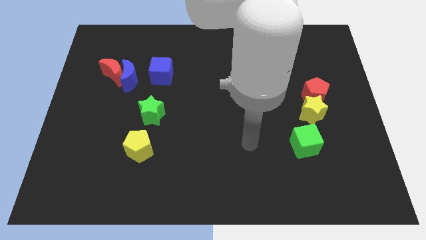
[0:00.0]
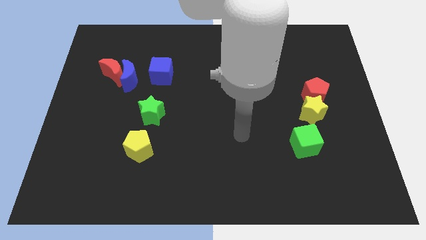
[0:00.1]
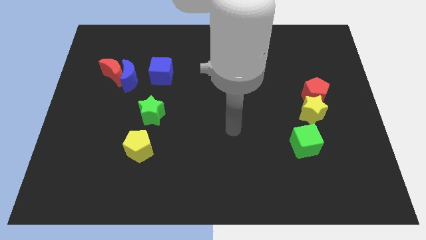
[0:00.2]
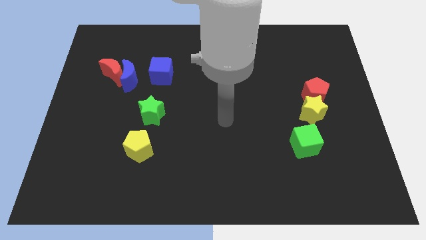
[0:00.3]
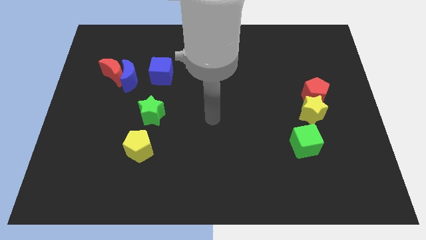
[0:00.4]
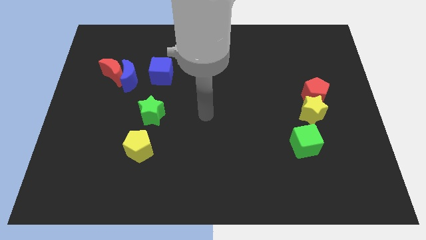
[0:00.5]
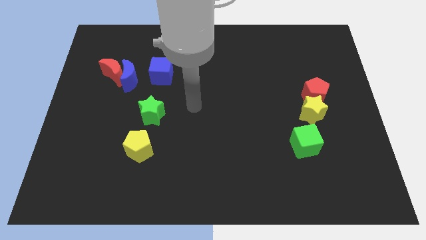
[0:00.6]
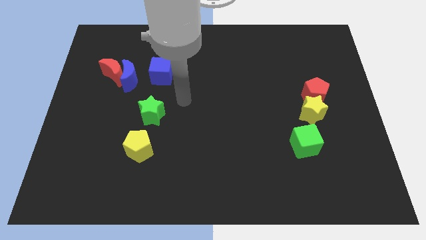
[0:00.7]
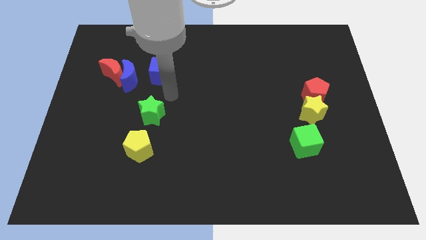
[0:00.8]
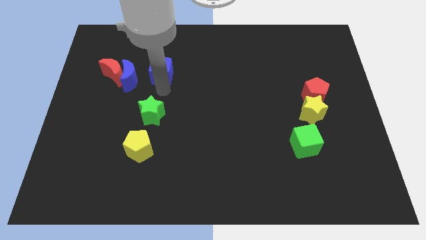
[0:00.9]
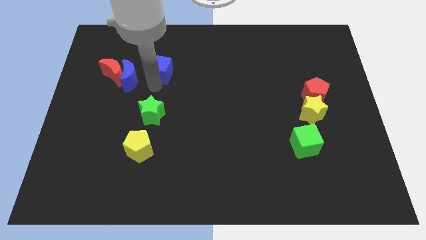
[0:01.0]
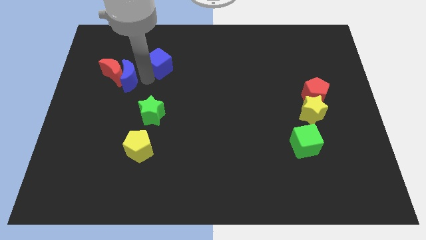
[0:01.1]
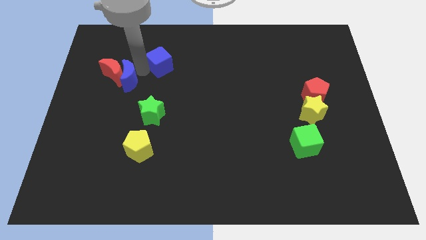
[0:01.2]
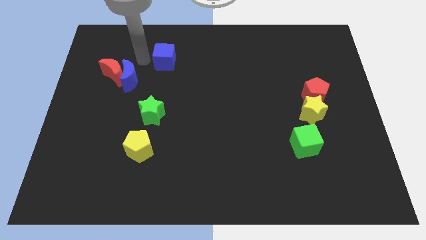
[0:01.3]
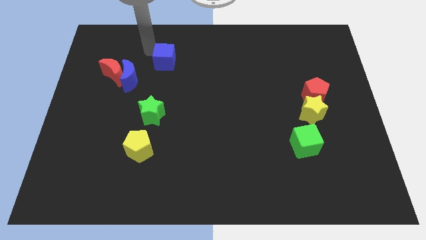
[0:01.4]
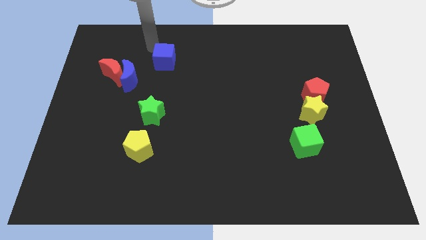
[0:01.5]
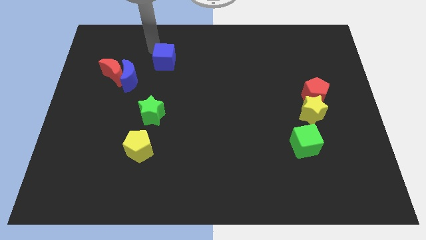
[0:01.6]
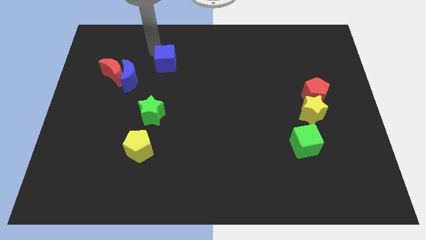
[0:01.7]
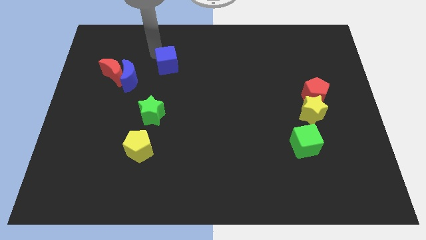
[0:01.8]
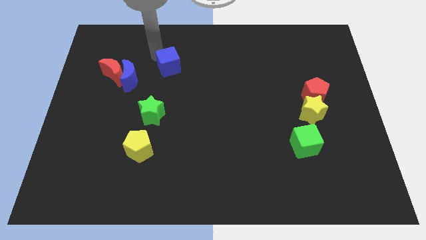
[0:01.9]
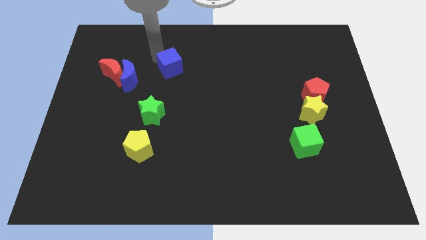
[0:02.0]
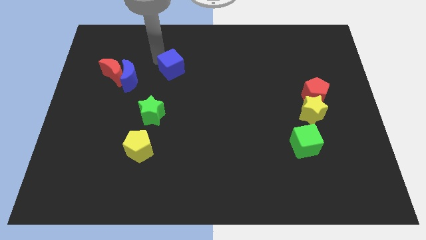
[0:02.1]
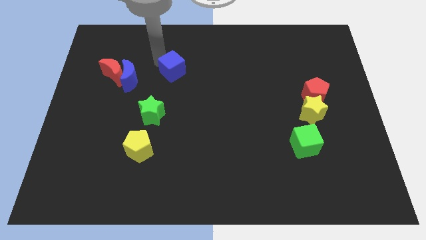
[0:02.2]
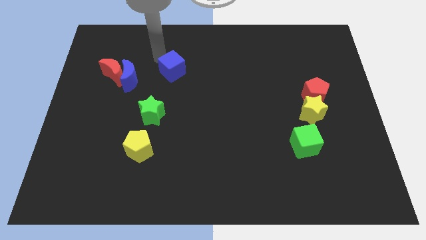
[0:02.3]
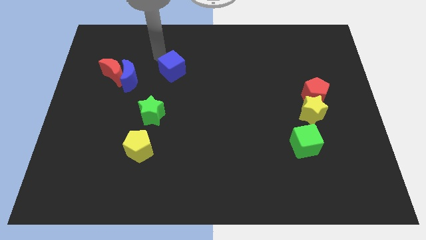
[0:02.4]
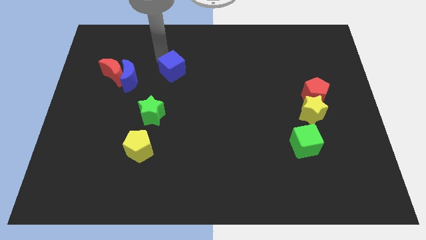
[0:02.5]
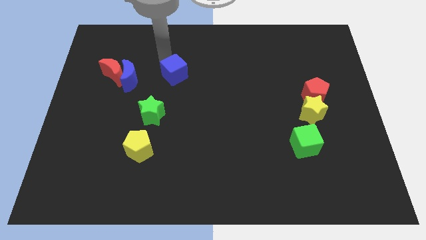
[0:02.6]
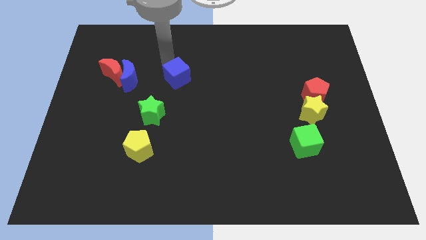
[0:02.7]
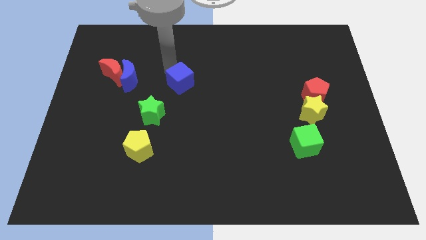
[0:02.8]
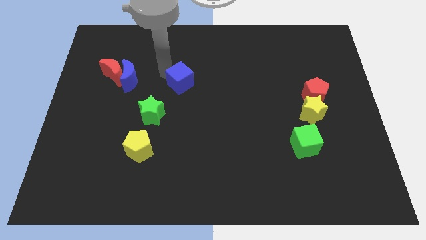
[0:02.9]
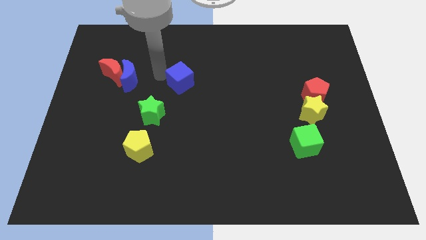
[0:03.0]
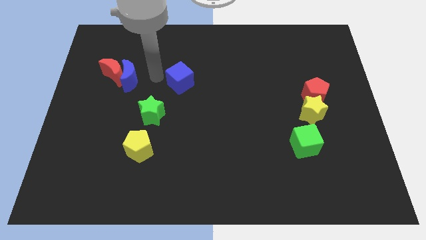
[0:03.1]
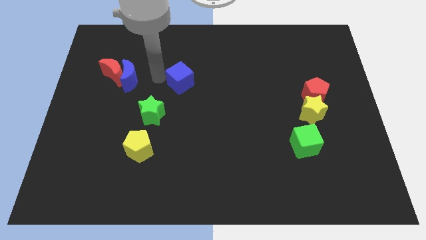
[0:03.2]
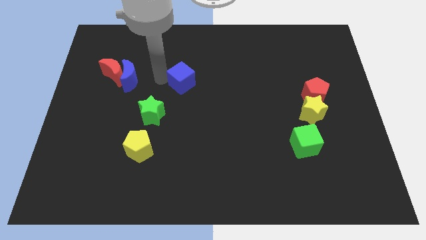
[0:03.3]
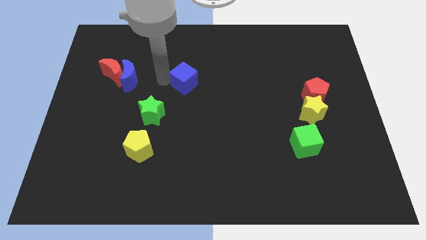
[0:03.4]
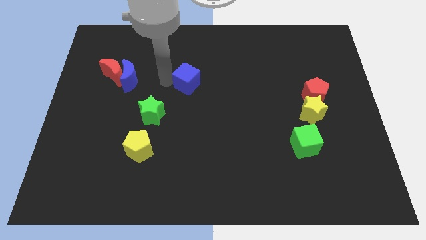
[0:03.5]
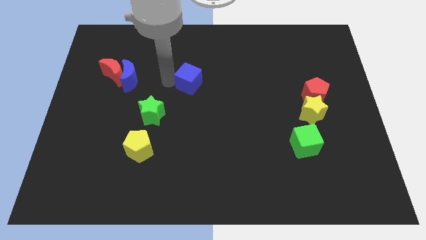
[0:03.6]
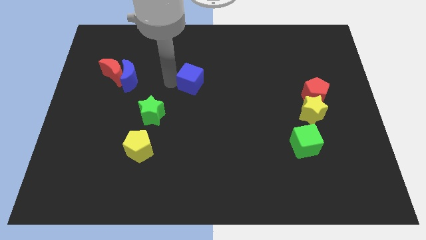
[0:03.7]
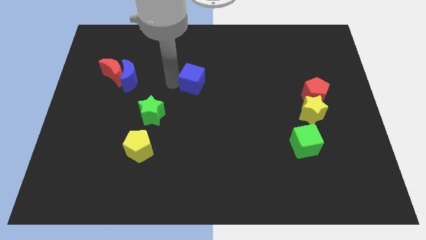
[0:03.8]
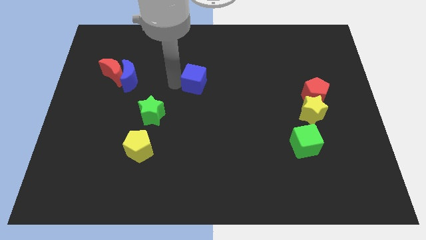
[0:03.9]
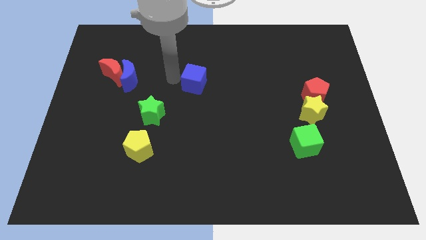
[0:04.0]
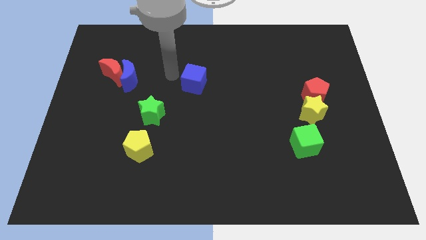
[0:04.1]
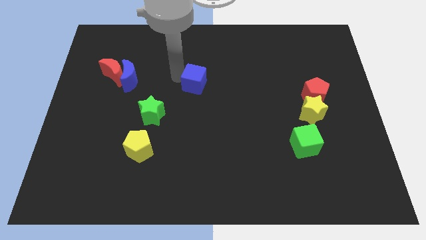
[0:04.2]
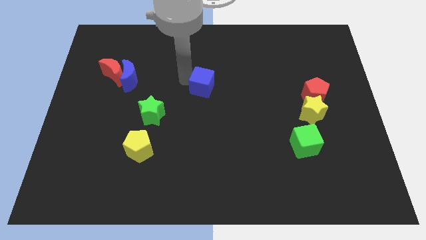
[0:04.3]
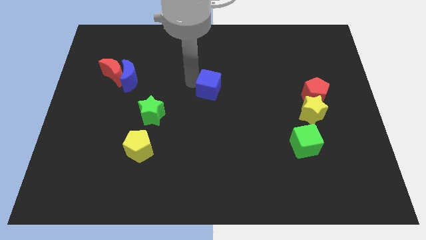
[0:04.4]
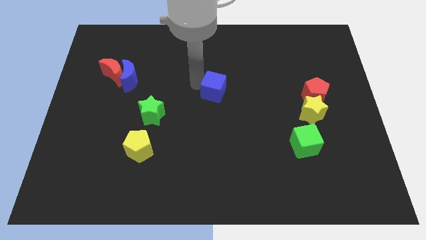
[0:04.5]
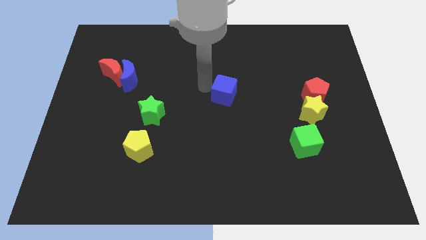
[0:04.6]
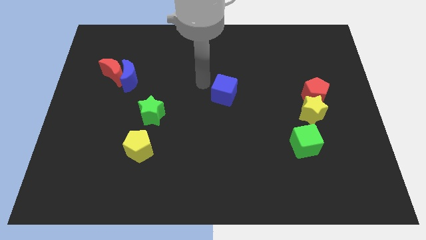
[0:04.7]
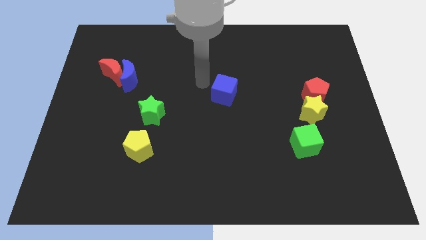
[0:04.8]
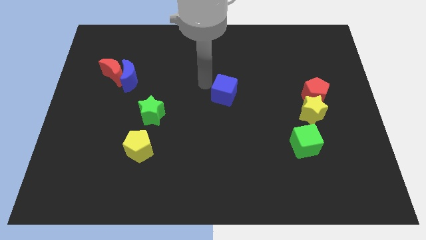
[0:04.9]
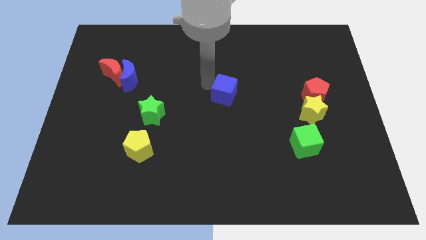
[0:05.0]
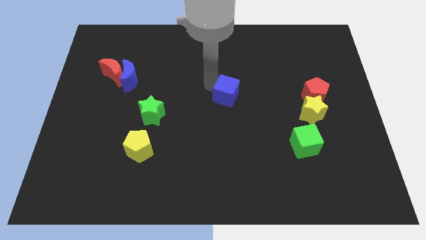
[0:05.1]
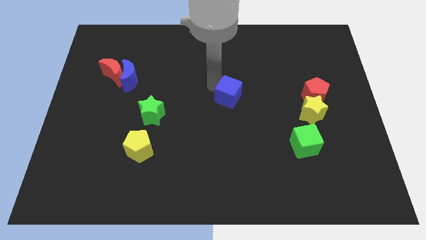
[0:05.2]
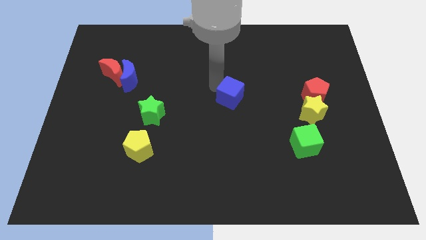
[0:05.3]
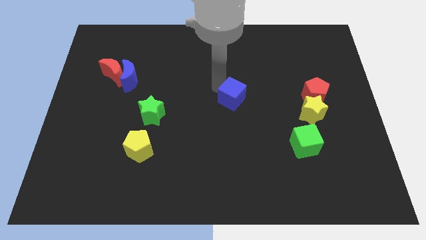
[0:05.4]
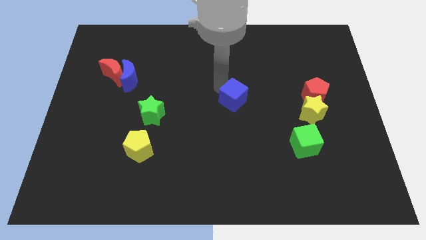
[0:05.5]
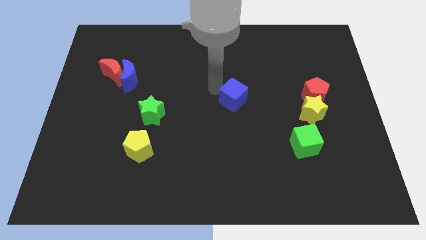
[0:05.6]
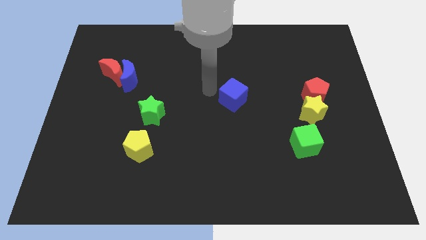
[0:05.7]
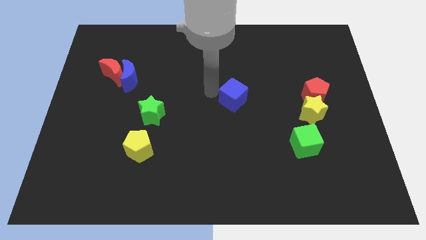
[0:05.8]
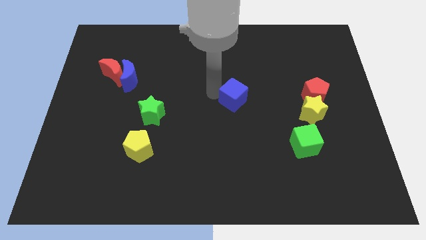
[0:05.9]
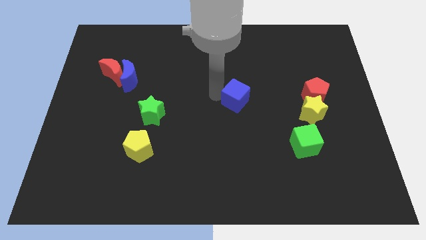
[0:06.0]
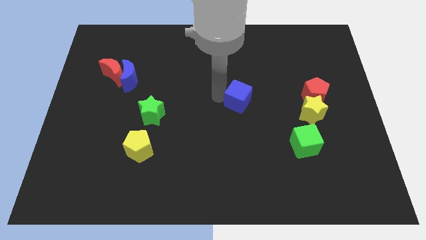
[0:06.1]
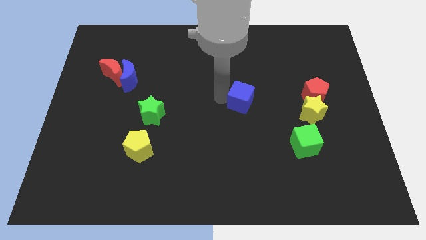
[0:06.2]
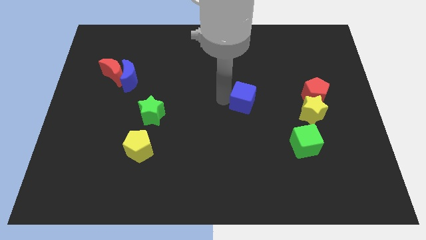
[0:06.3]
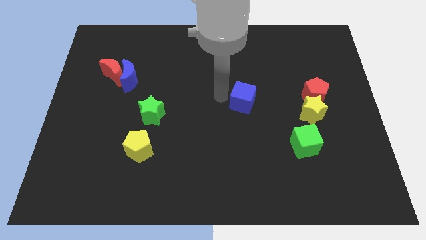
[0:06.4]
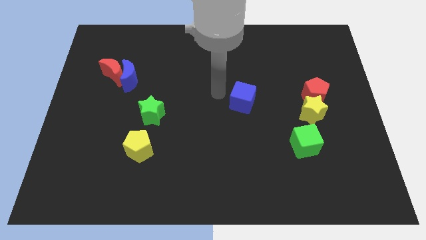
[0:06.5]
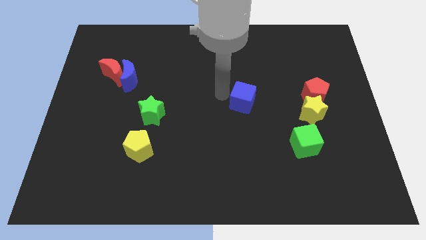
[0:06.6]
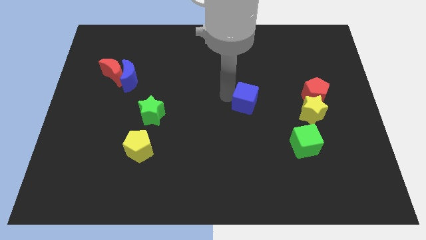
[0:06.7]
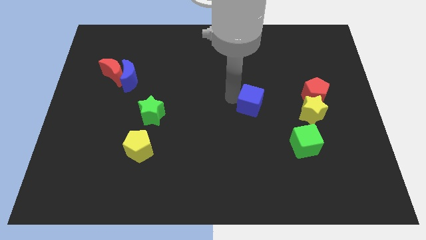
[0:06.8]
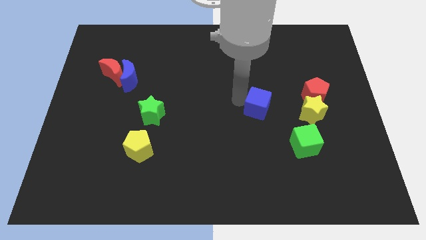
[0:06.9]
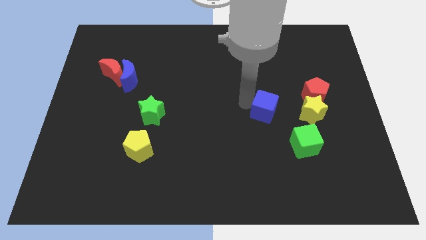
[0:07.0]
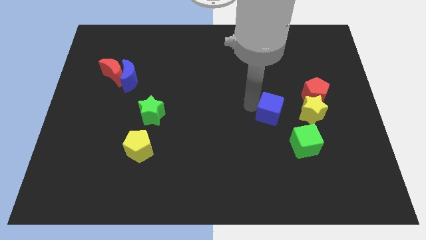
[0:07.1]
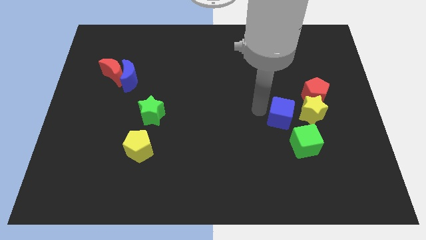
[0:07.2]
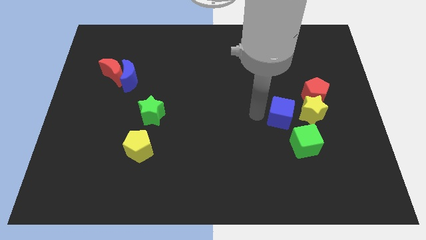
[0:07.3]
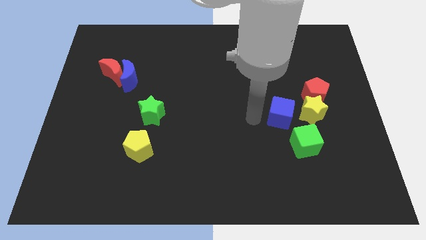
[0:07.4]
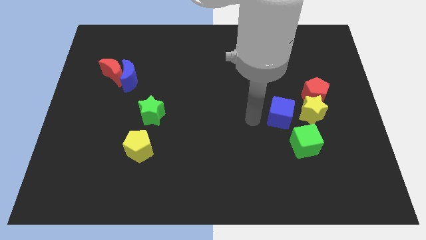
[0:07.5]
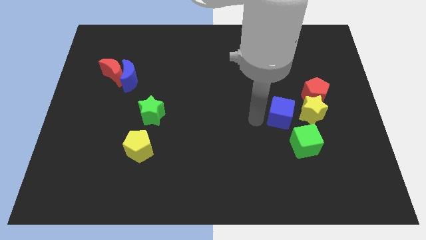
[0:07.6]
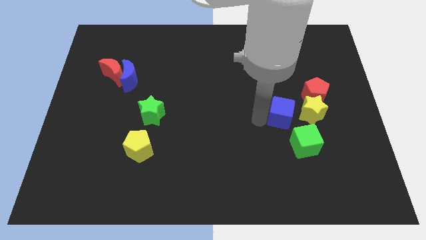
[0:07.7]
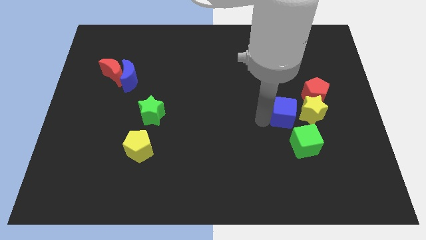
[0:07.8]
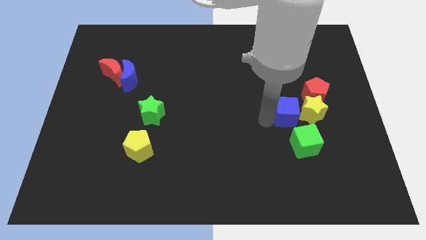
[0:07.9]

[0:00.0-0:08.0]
put the blue cube towards the yellow star
